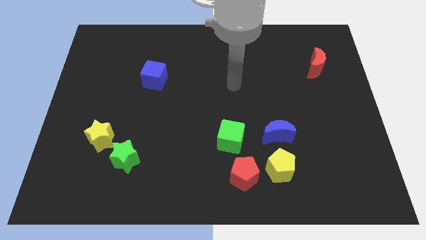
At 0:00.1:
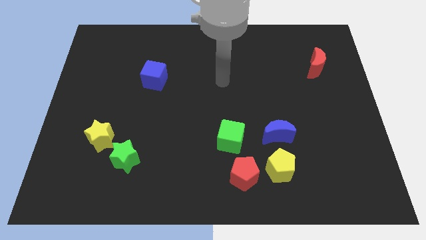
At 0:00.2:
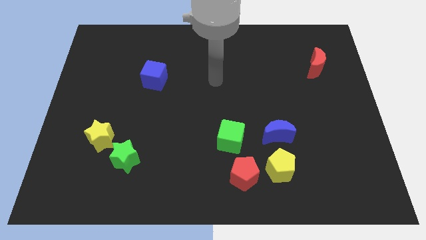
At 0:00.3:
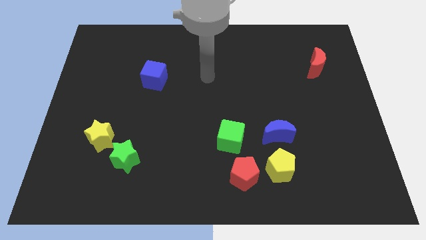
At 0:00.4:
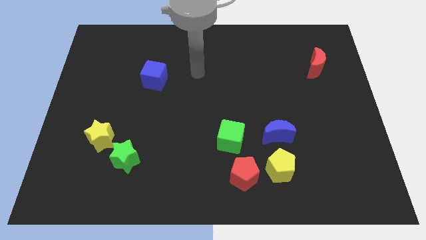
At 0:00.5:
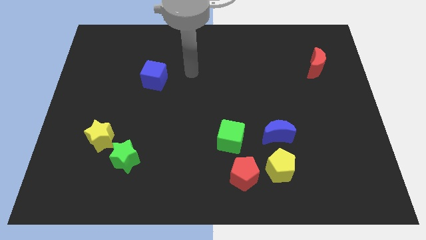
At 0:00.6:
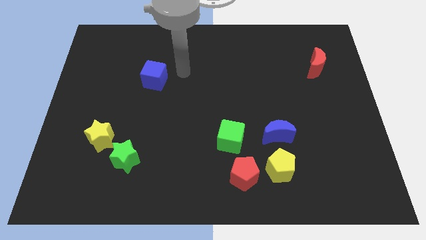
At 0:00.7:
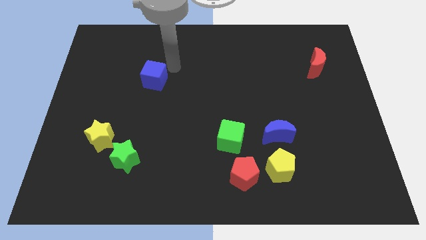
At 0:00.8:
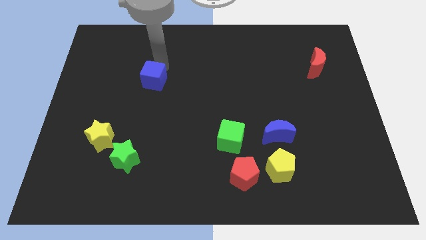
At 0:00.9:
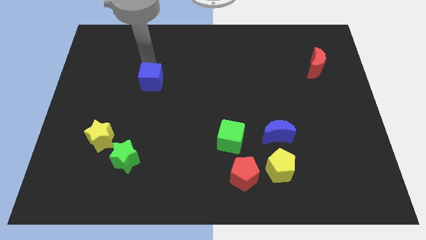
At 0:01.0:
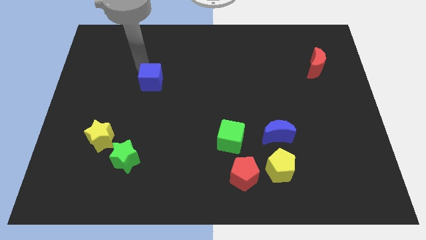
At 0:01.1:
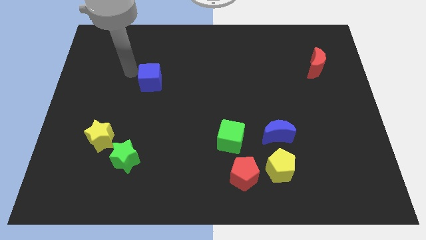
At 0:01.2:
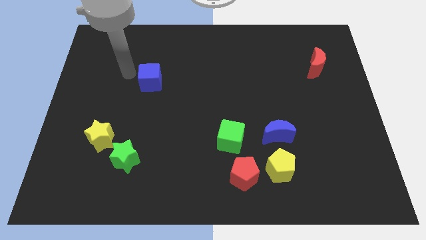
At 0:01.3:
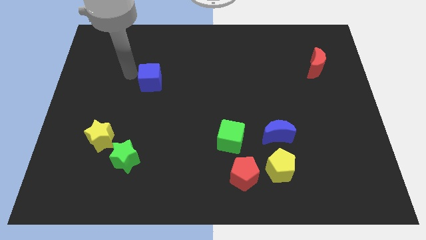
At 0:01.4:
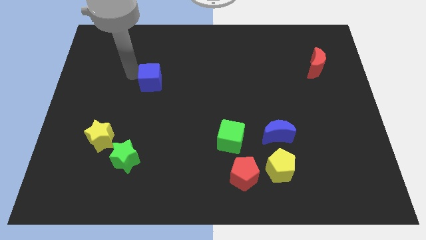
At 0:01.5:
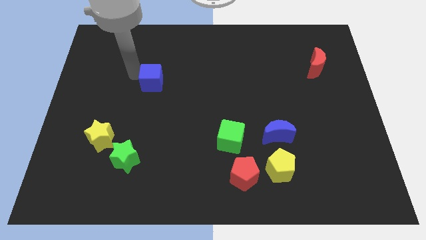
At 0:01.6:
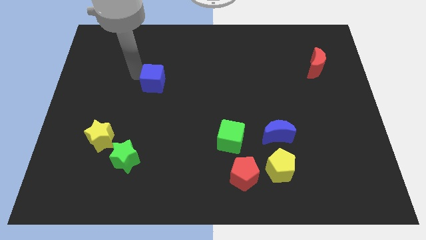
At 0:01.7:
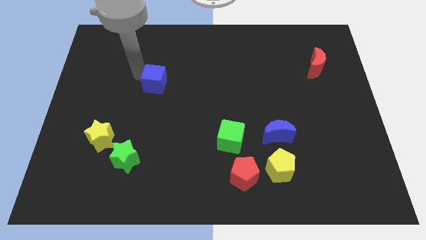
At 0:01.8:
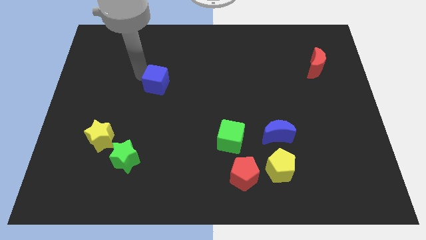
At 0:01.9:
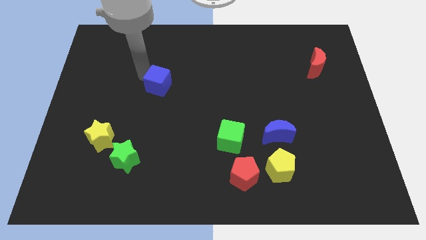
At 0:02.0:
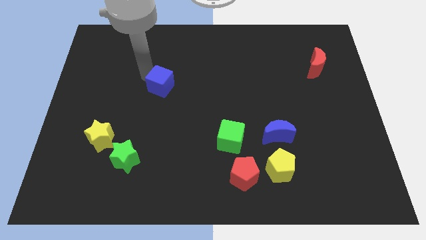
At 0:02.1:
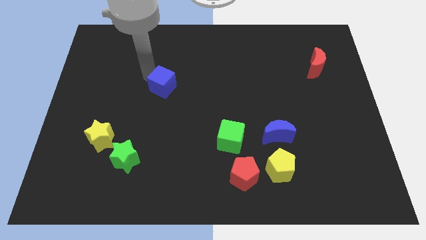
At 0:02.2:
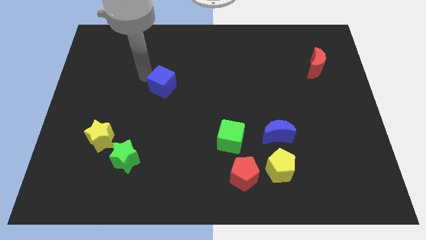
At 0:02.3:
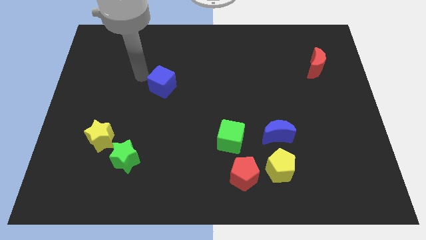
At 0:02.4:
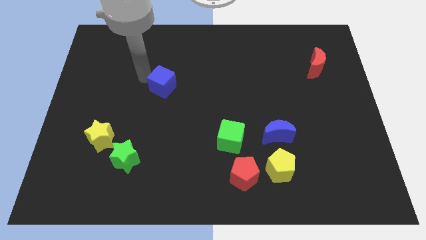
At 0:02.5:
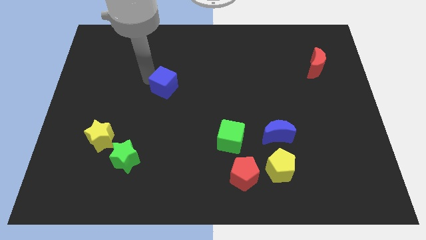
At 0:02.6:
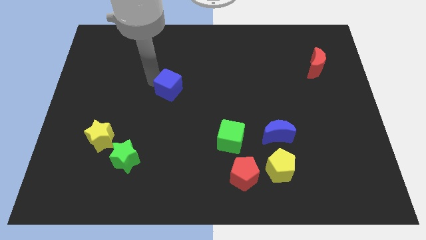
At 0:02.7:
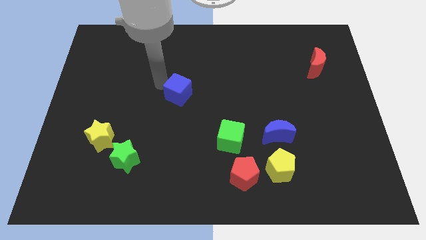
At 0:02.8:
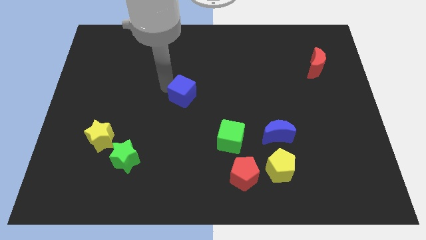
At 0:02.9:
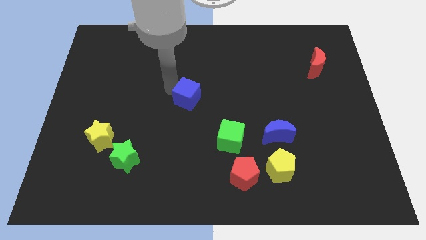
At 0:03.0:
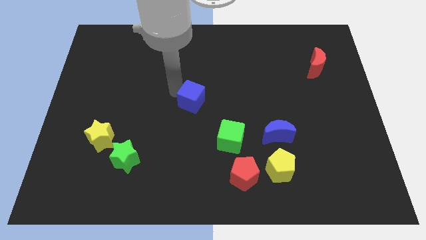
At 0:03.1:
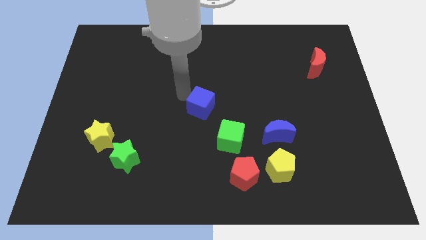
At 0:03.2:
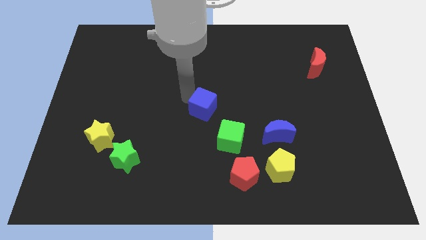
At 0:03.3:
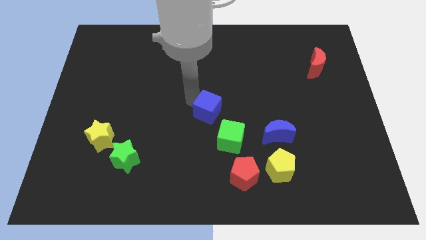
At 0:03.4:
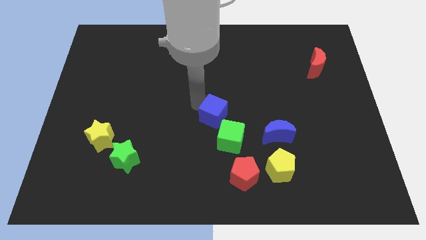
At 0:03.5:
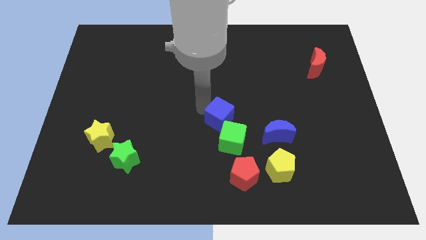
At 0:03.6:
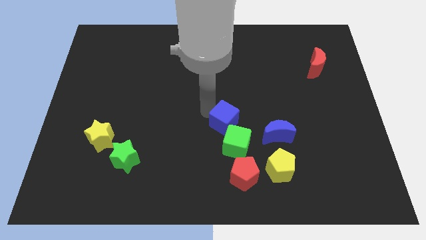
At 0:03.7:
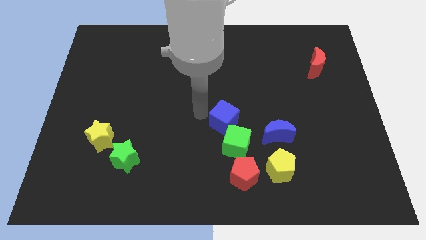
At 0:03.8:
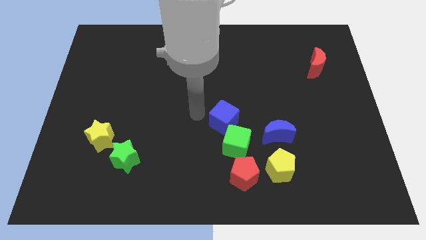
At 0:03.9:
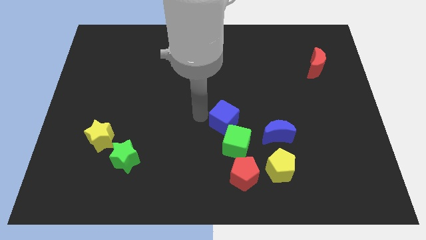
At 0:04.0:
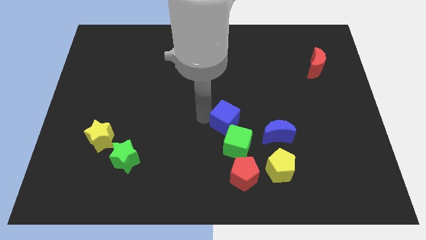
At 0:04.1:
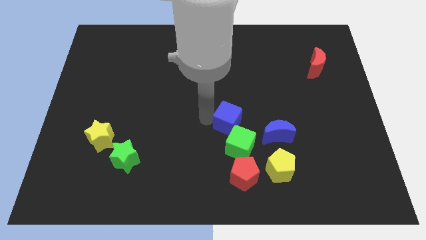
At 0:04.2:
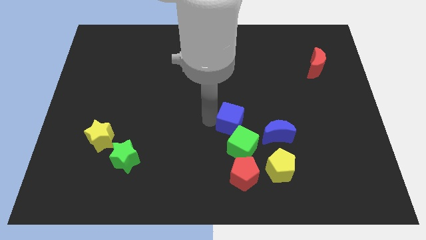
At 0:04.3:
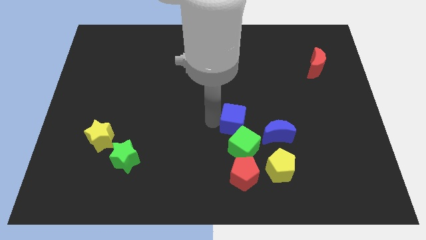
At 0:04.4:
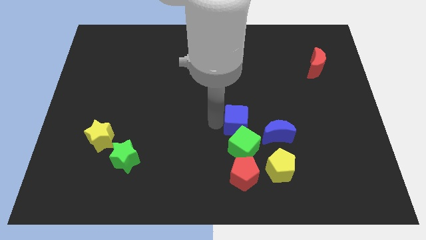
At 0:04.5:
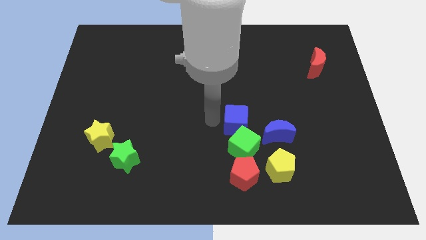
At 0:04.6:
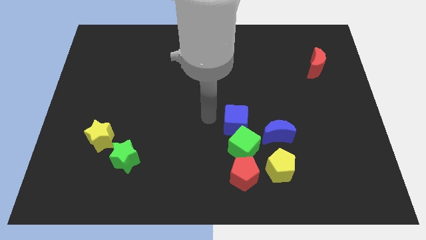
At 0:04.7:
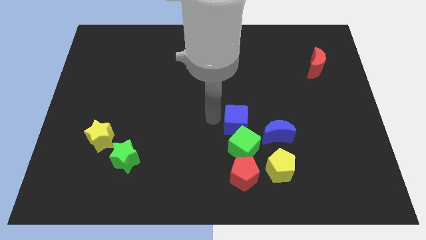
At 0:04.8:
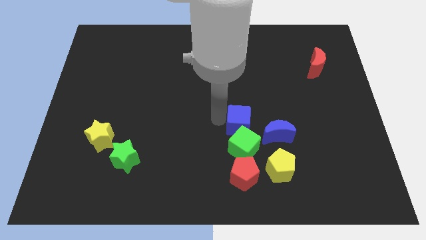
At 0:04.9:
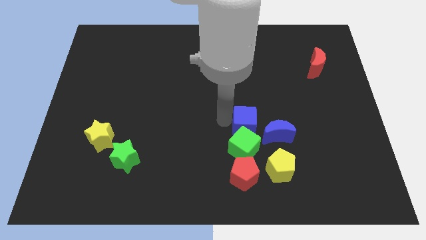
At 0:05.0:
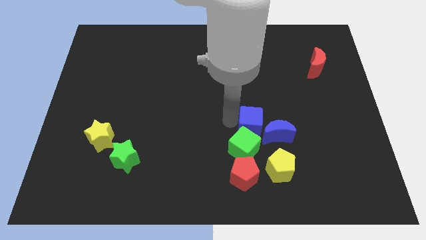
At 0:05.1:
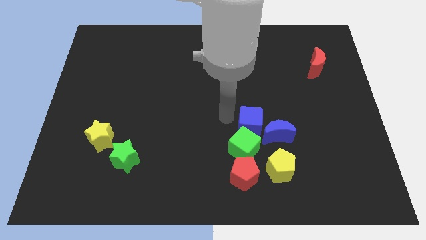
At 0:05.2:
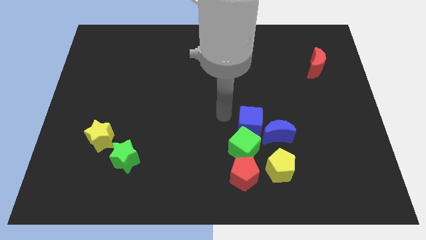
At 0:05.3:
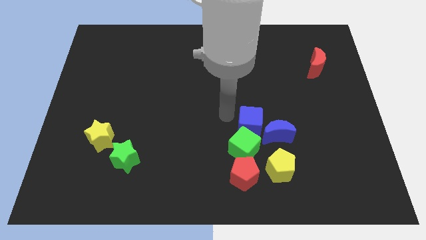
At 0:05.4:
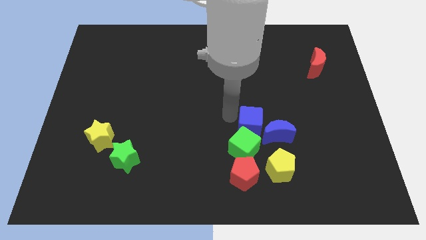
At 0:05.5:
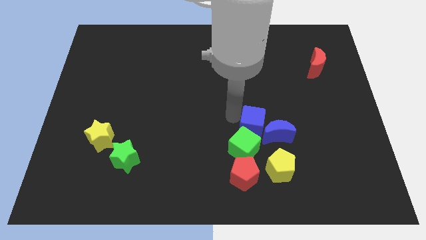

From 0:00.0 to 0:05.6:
put the blue cube close to the blue moon

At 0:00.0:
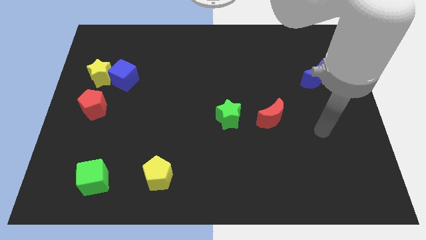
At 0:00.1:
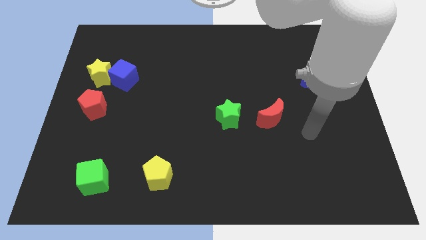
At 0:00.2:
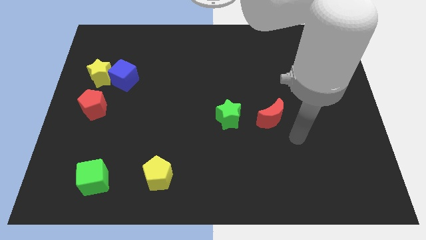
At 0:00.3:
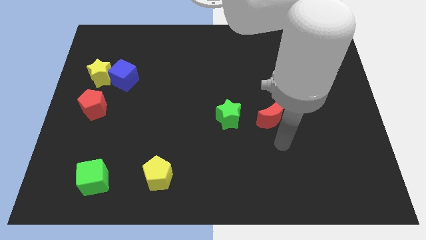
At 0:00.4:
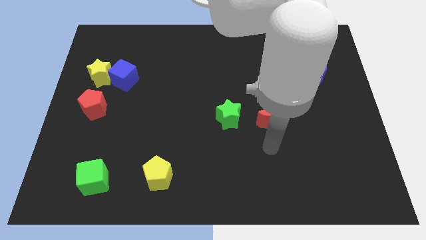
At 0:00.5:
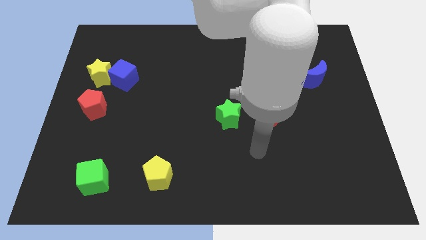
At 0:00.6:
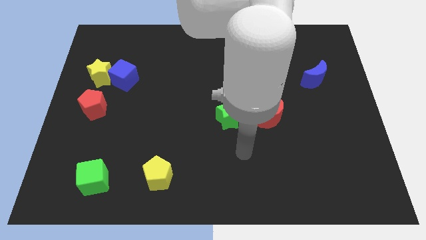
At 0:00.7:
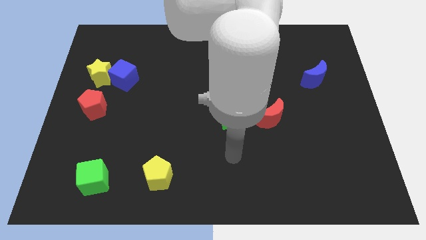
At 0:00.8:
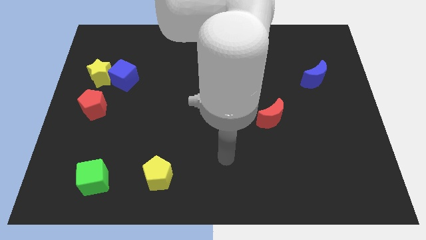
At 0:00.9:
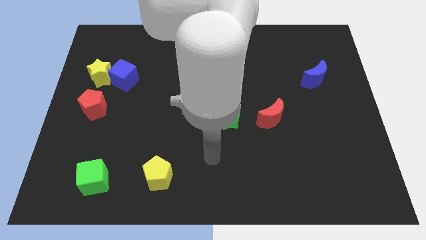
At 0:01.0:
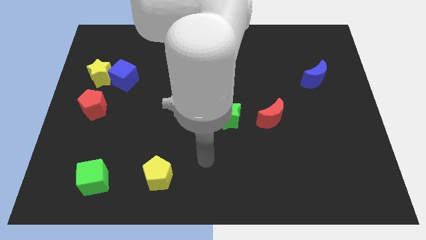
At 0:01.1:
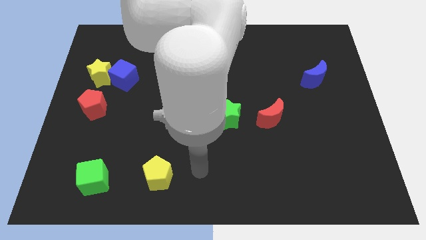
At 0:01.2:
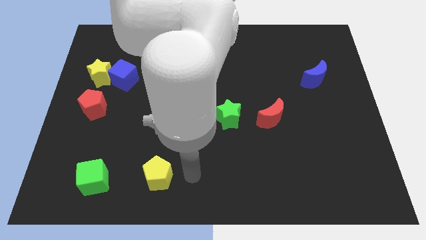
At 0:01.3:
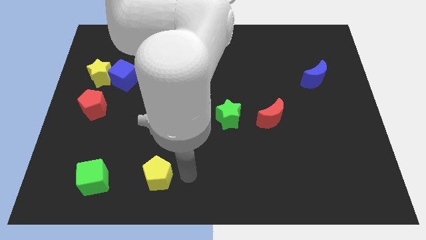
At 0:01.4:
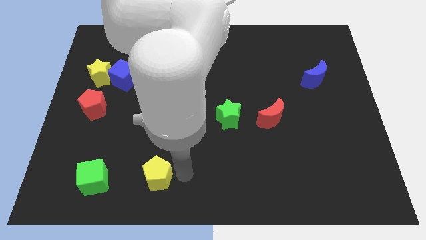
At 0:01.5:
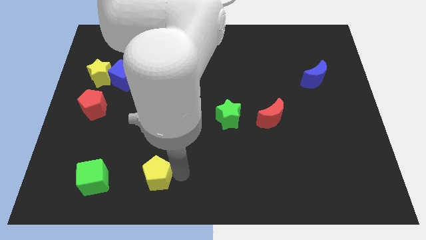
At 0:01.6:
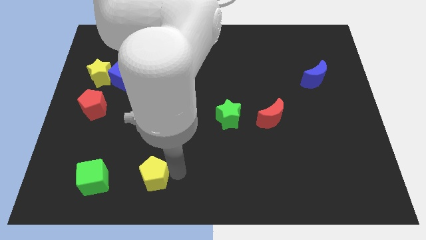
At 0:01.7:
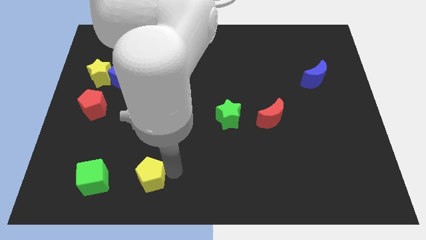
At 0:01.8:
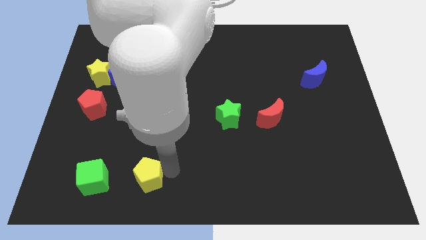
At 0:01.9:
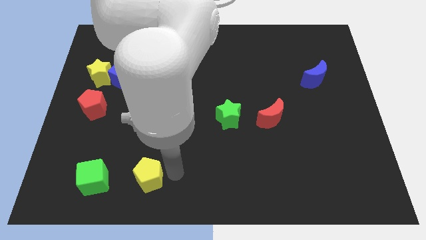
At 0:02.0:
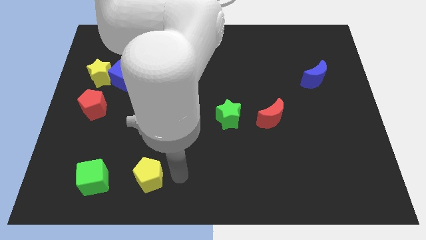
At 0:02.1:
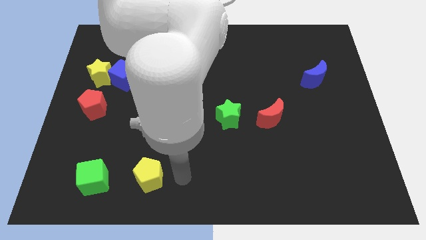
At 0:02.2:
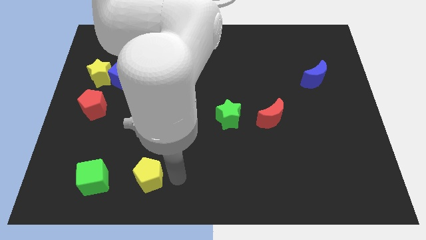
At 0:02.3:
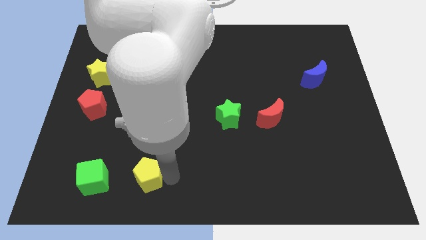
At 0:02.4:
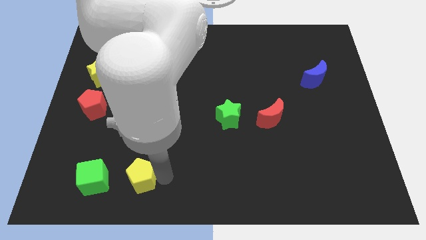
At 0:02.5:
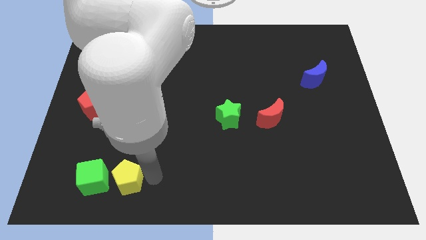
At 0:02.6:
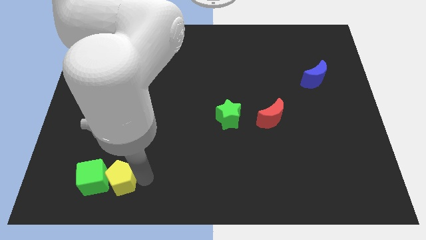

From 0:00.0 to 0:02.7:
push the yellow pentagon close to the green cube
